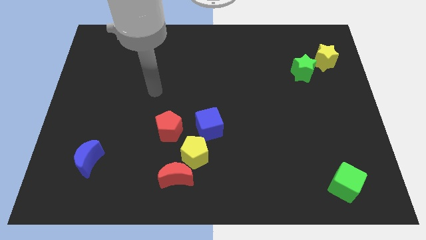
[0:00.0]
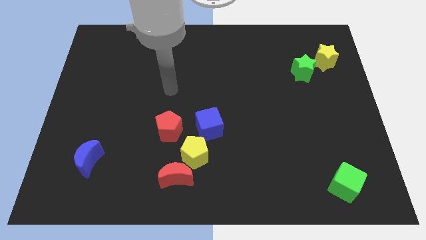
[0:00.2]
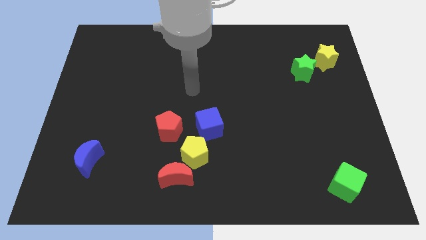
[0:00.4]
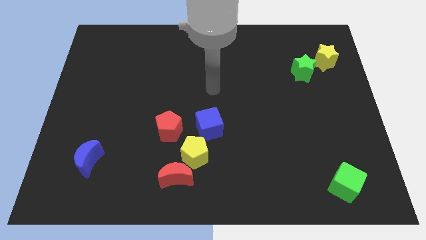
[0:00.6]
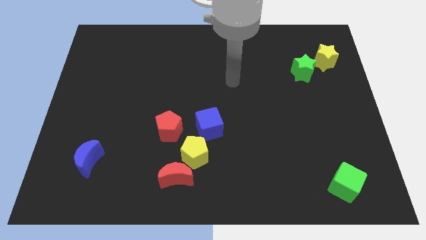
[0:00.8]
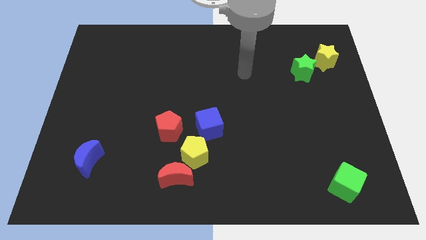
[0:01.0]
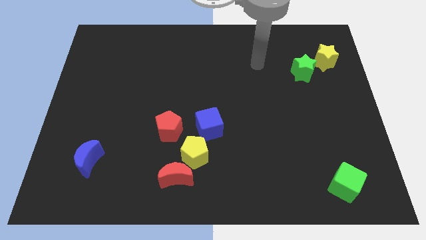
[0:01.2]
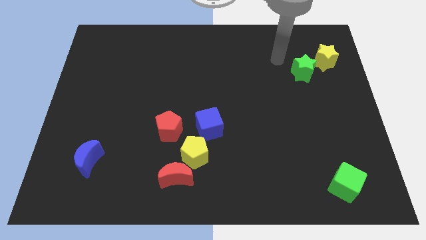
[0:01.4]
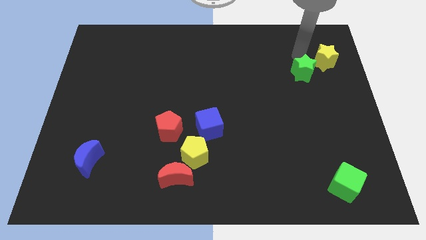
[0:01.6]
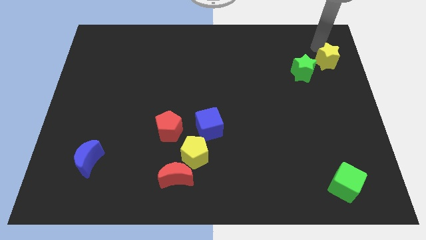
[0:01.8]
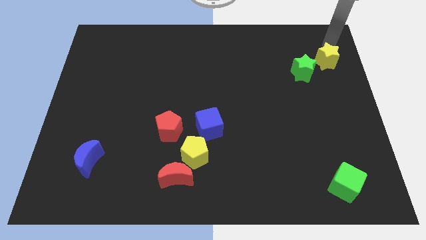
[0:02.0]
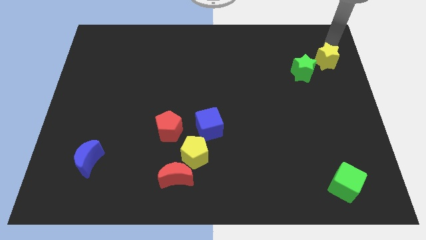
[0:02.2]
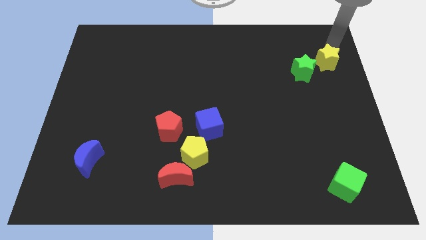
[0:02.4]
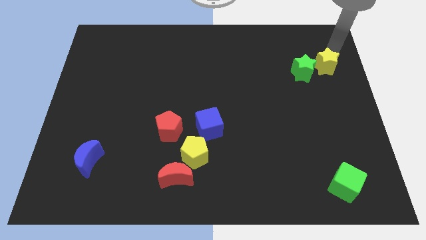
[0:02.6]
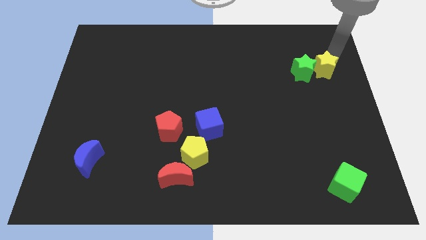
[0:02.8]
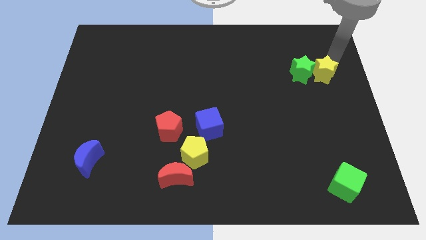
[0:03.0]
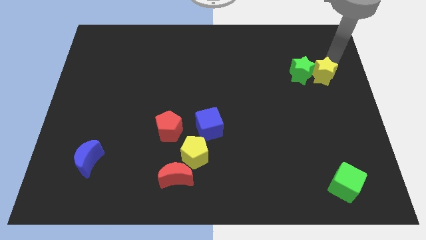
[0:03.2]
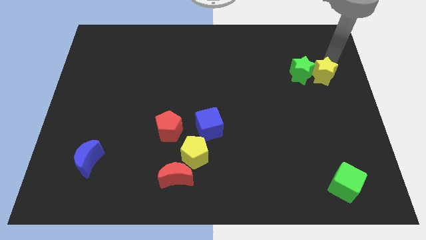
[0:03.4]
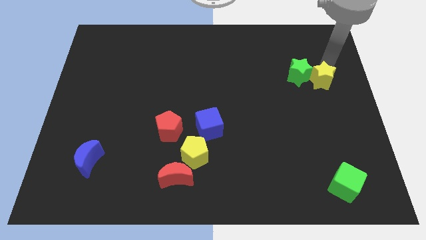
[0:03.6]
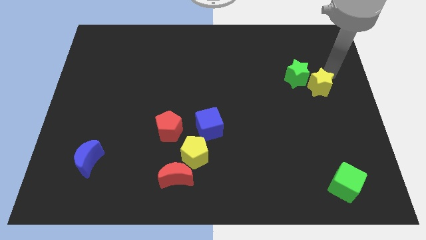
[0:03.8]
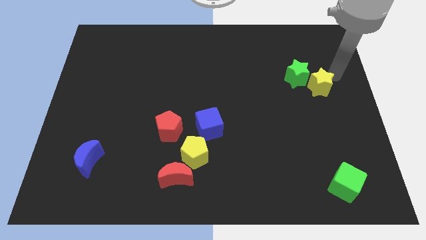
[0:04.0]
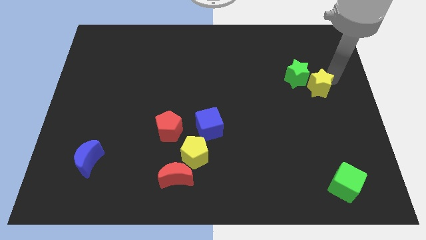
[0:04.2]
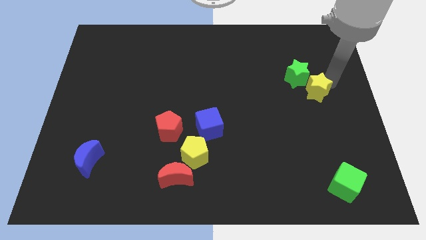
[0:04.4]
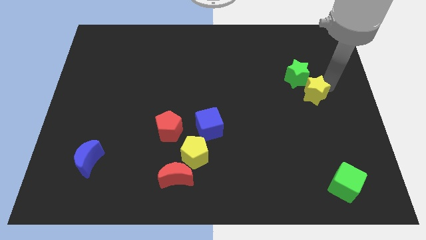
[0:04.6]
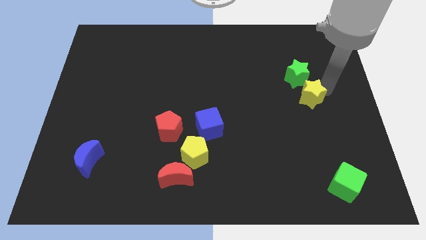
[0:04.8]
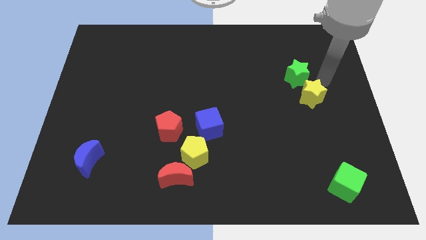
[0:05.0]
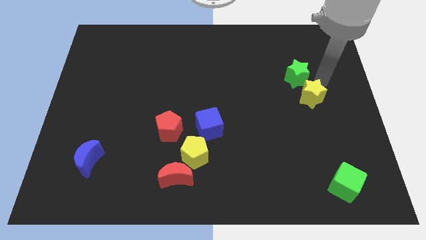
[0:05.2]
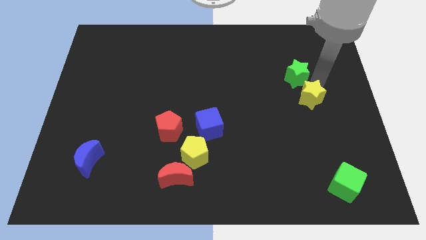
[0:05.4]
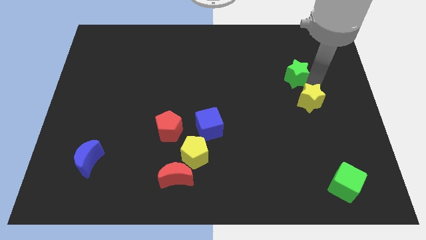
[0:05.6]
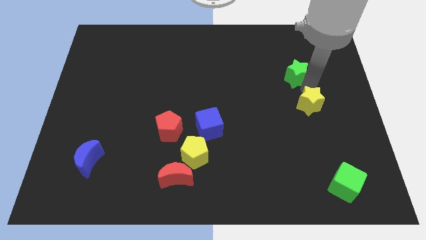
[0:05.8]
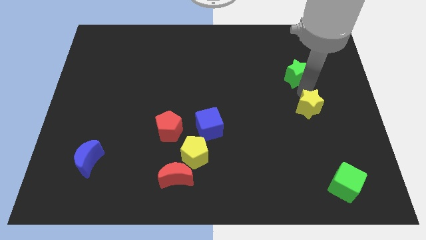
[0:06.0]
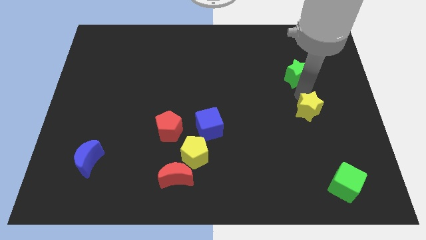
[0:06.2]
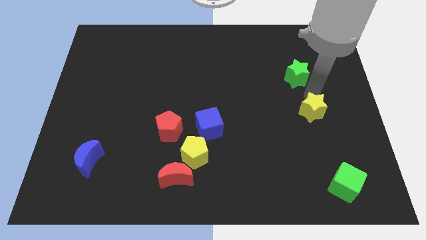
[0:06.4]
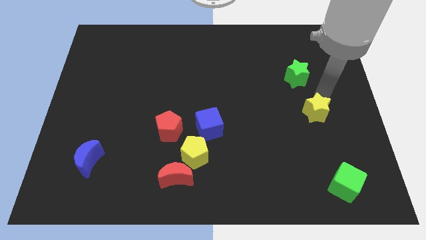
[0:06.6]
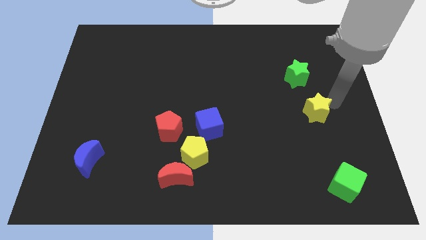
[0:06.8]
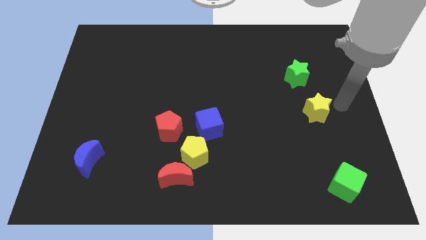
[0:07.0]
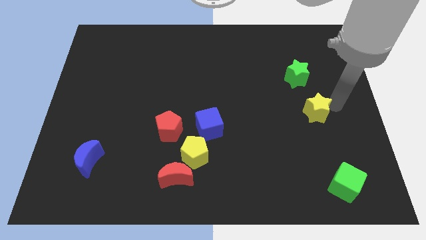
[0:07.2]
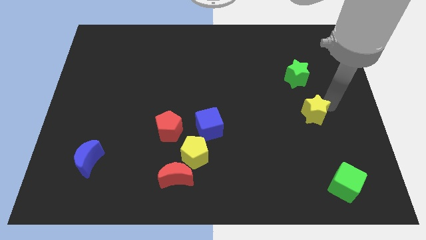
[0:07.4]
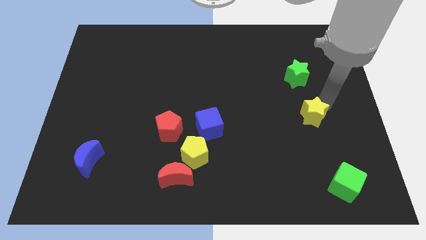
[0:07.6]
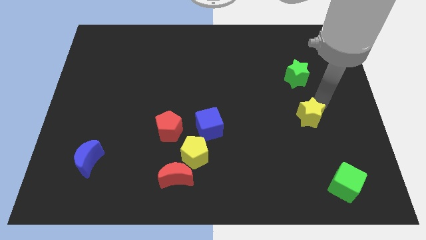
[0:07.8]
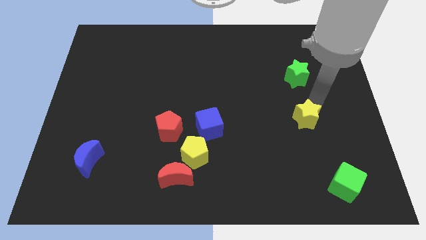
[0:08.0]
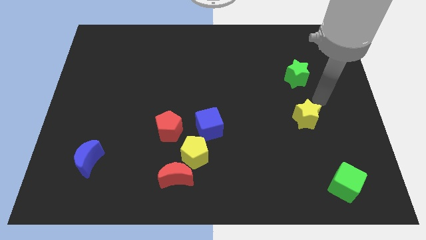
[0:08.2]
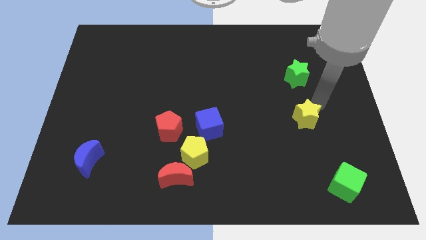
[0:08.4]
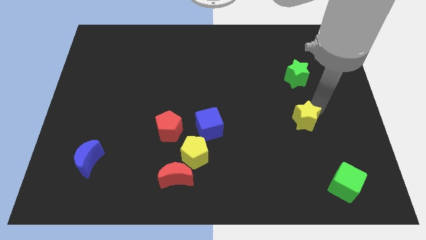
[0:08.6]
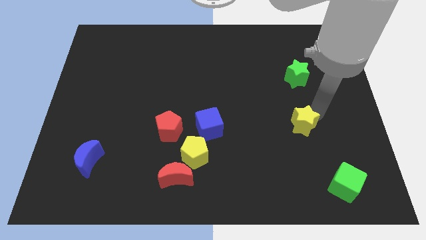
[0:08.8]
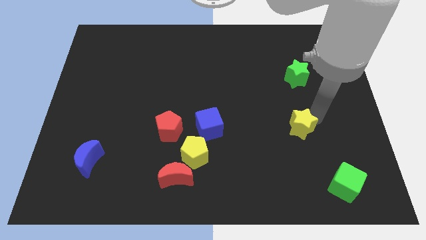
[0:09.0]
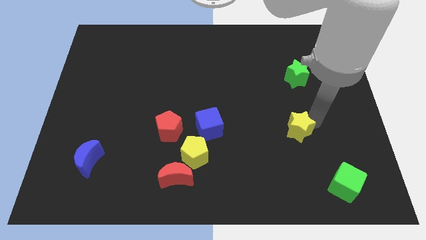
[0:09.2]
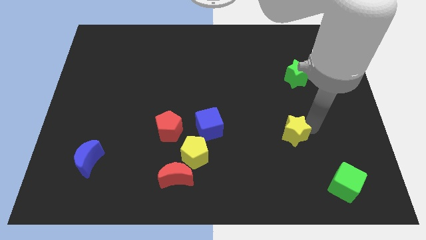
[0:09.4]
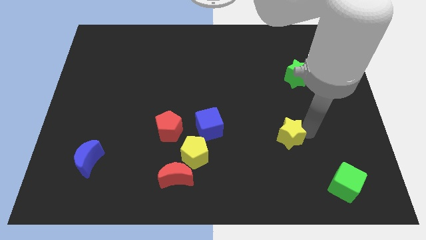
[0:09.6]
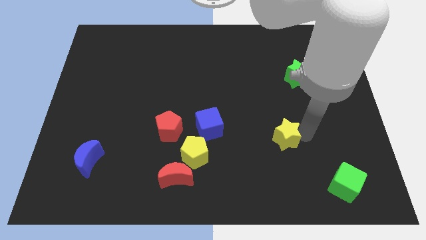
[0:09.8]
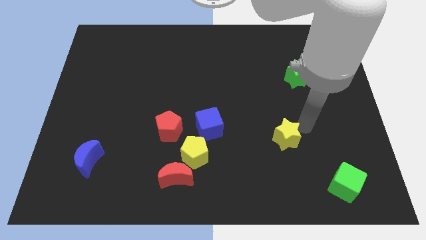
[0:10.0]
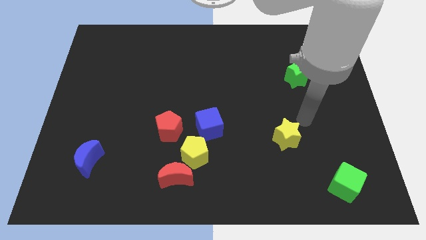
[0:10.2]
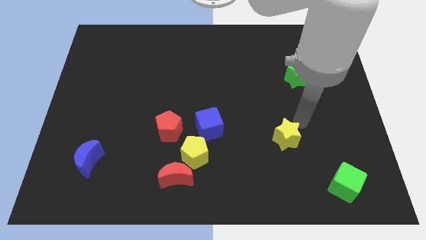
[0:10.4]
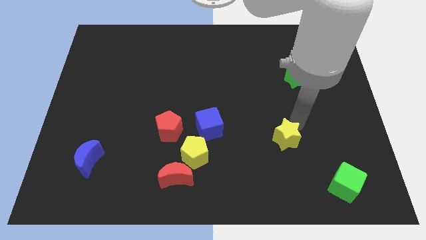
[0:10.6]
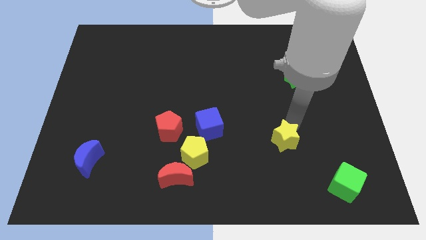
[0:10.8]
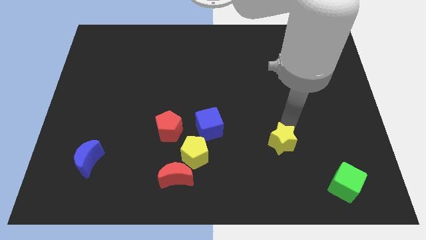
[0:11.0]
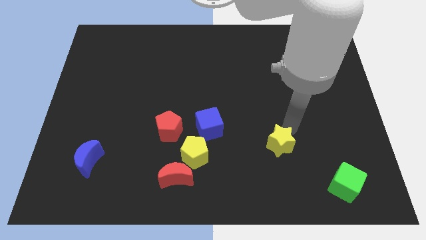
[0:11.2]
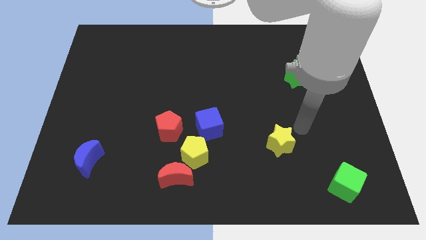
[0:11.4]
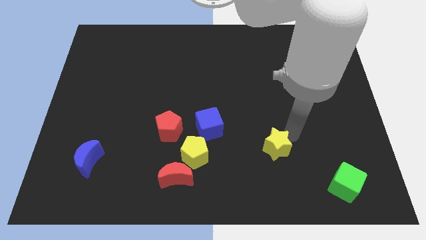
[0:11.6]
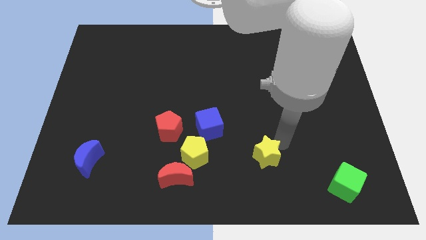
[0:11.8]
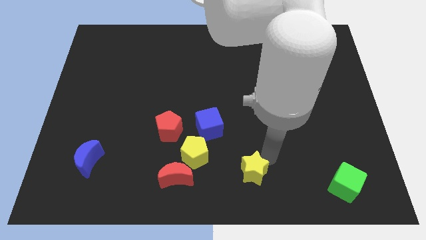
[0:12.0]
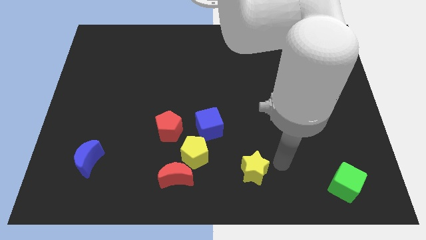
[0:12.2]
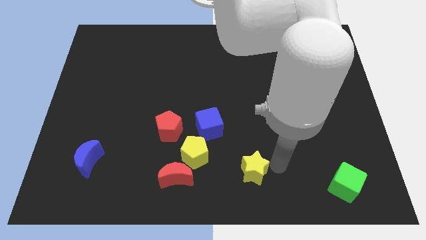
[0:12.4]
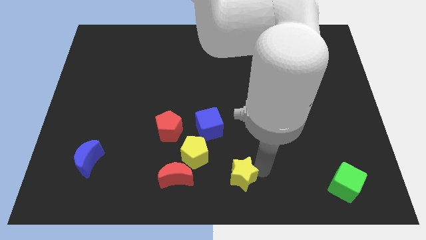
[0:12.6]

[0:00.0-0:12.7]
put the yellow star to the bottom right of the yellow pentagon
